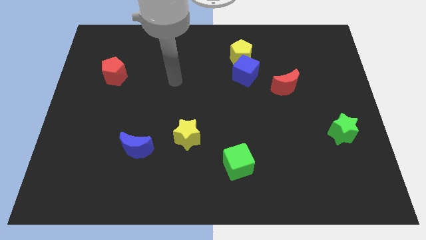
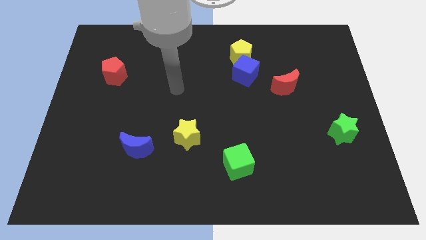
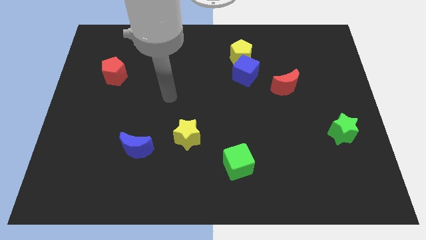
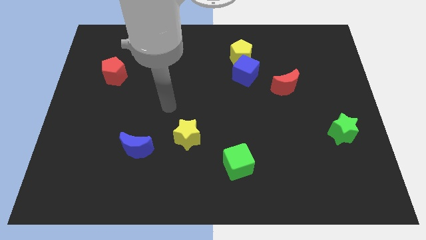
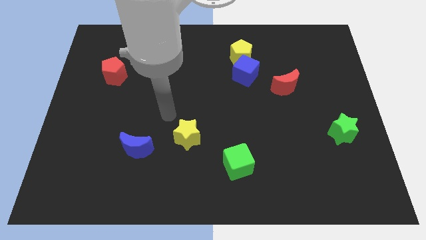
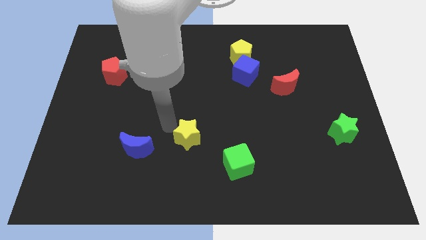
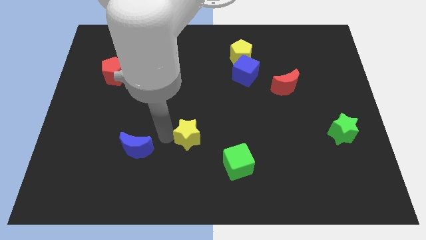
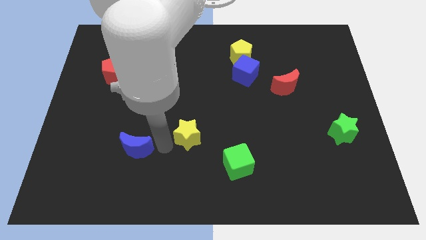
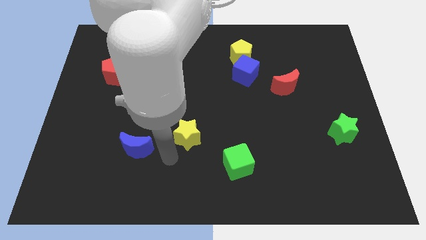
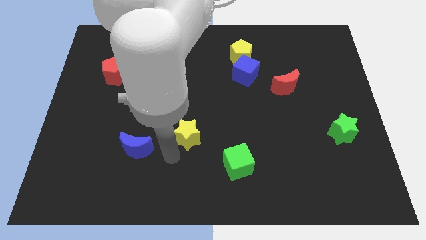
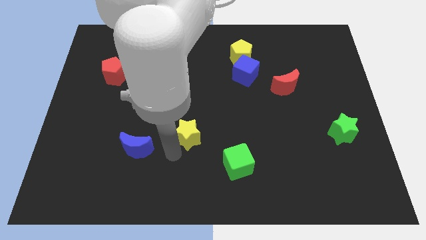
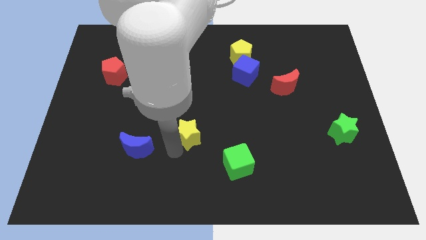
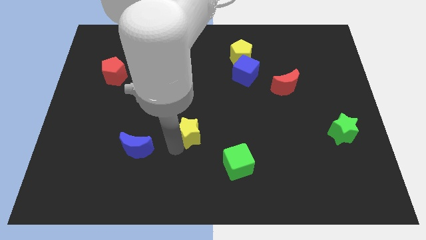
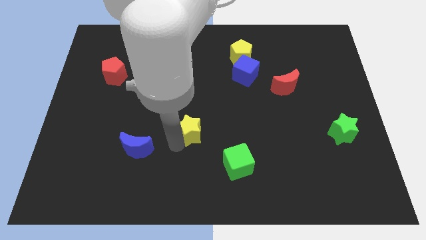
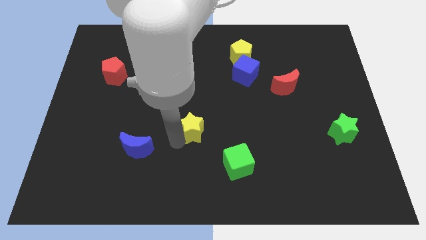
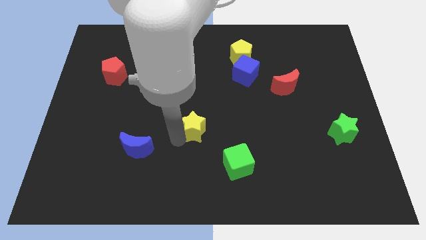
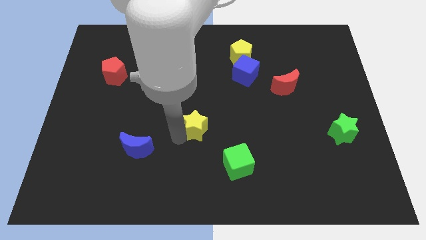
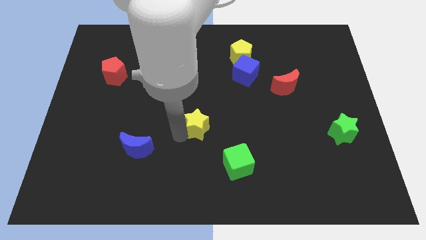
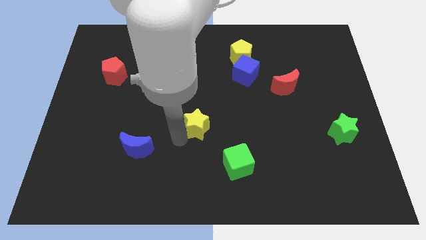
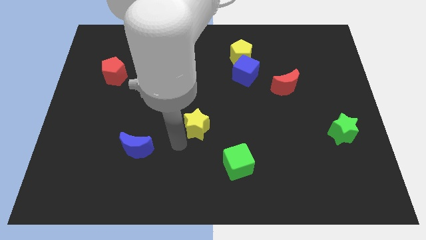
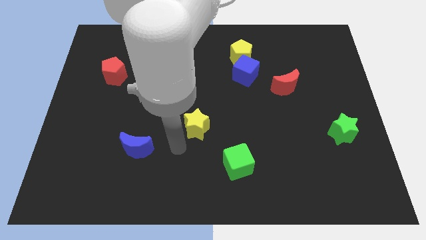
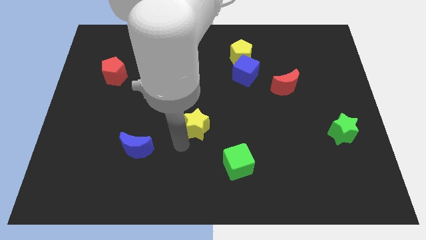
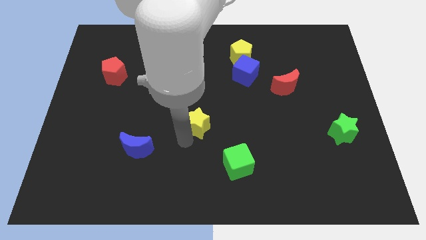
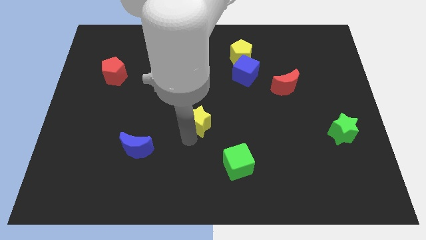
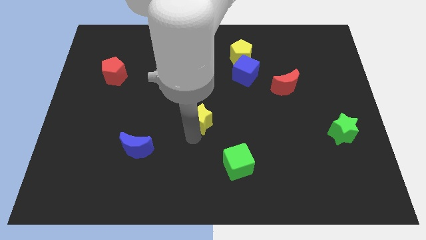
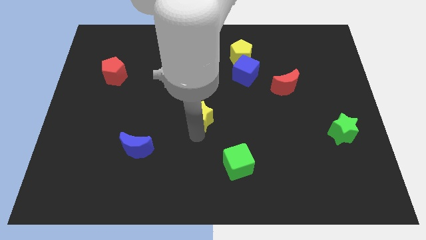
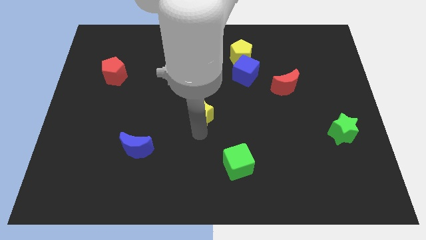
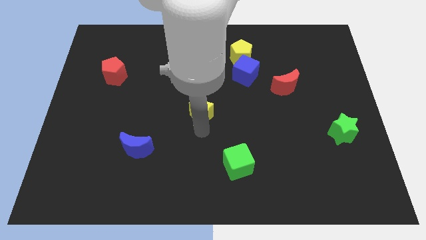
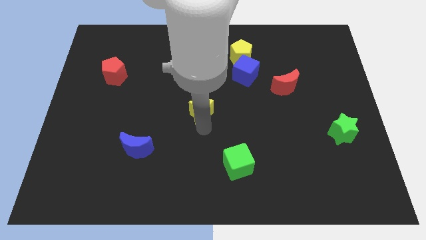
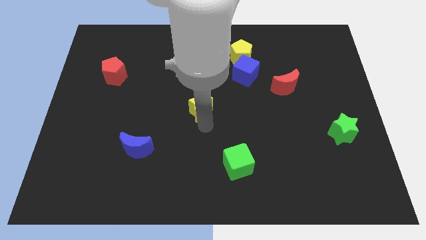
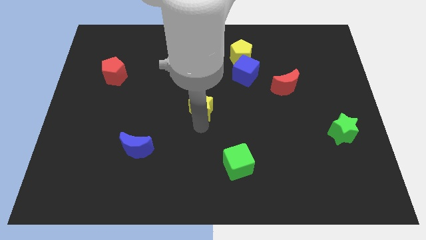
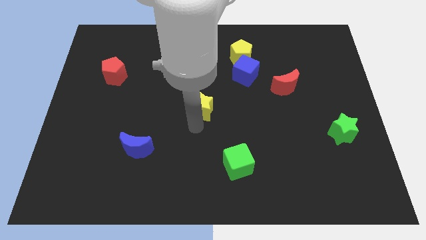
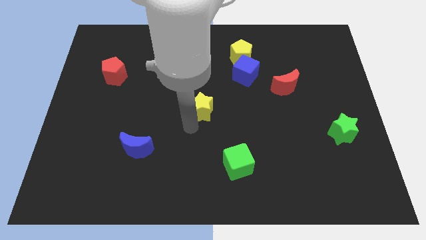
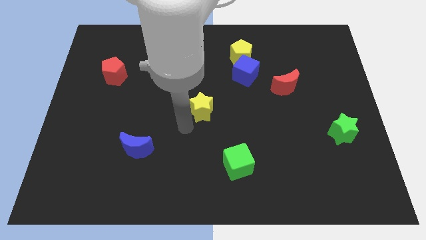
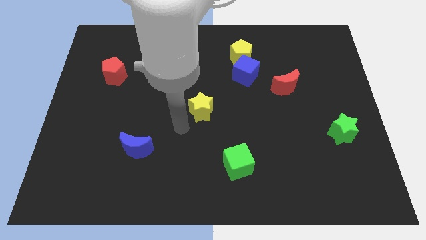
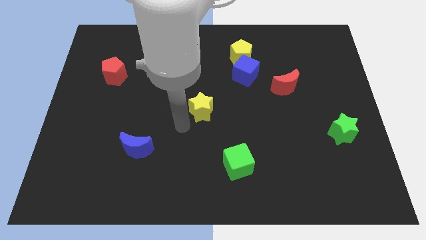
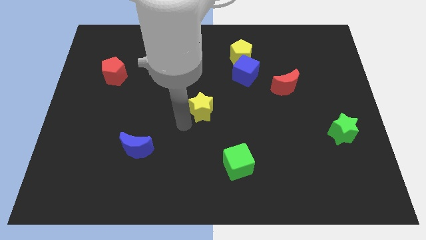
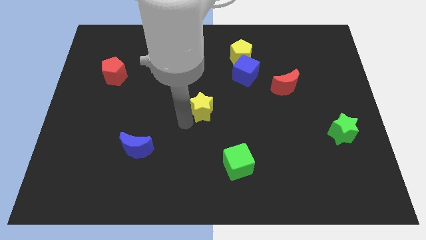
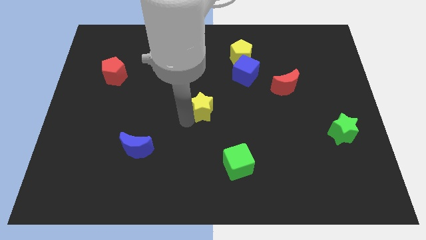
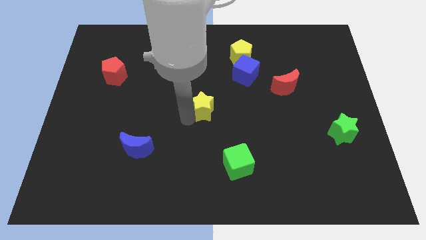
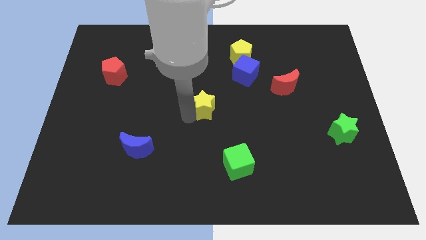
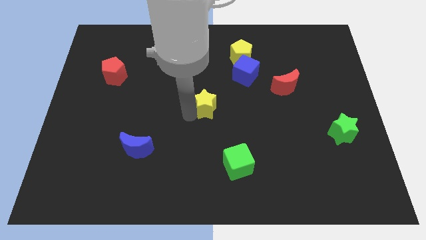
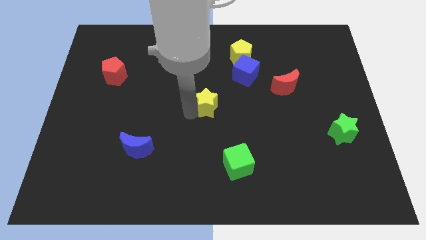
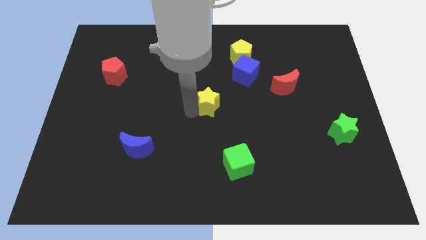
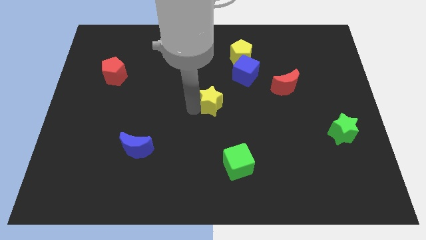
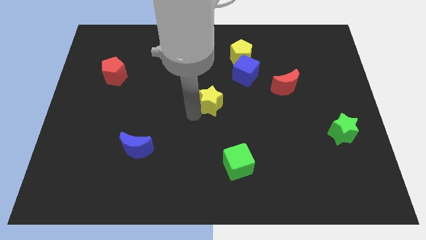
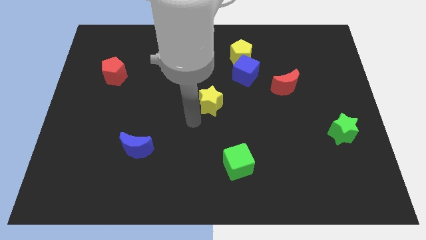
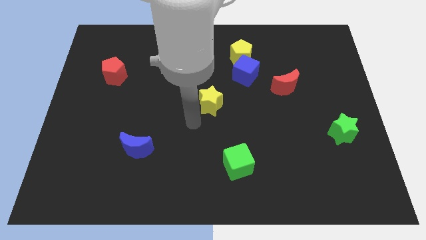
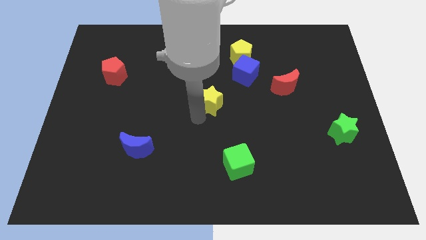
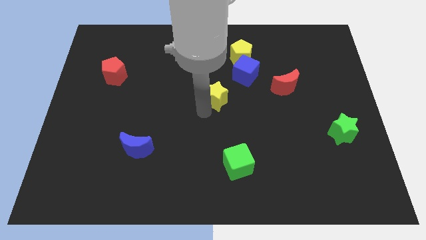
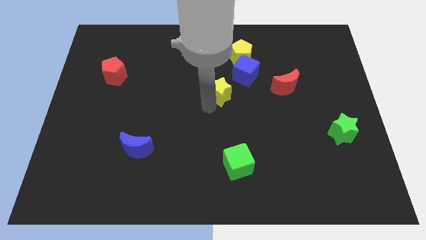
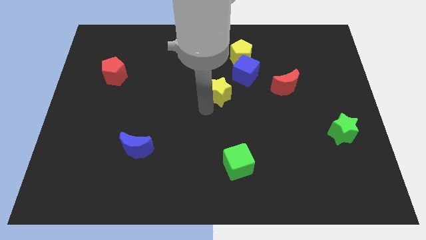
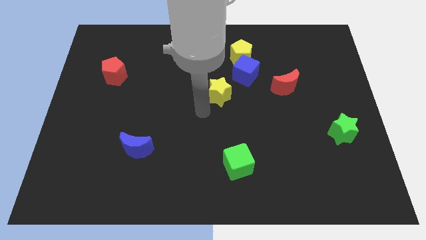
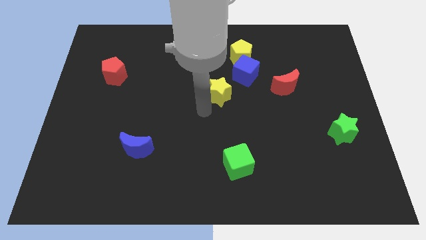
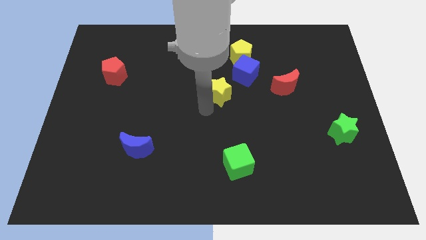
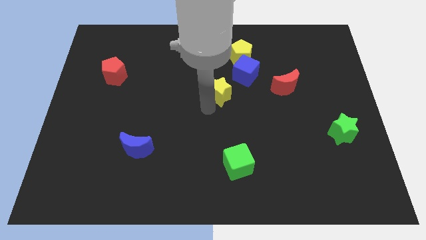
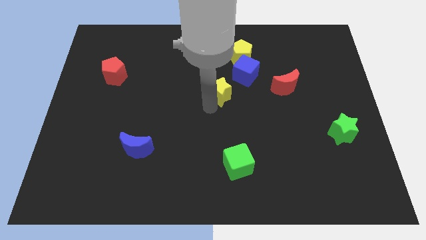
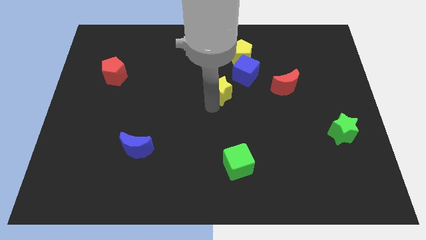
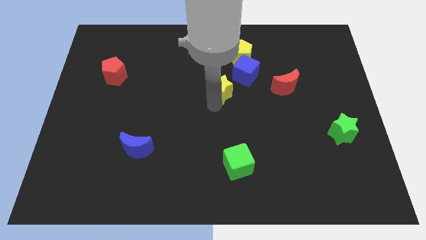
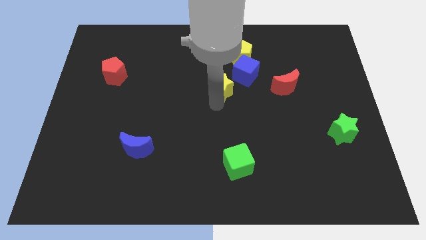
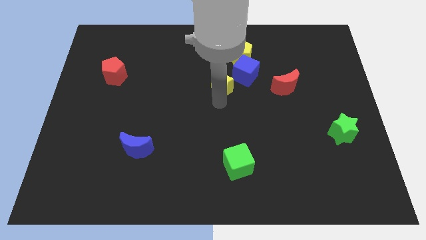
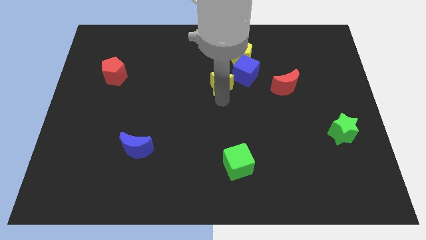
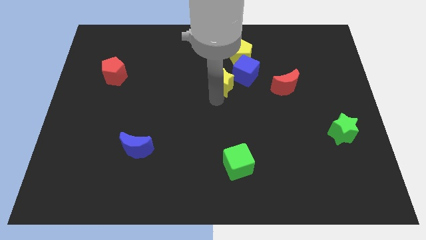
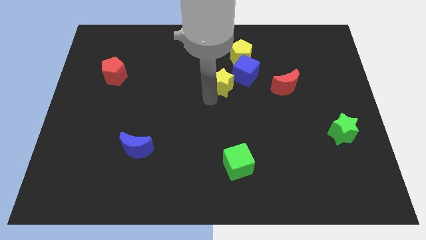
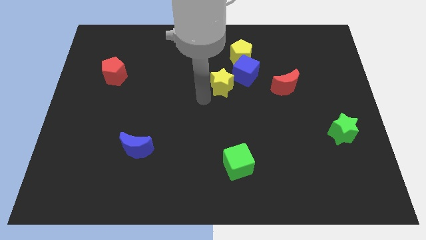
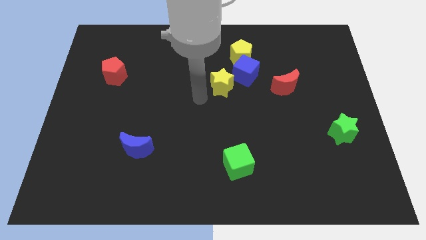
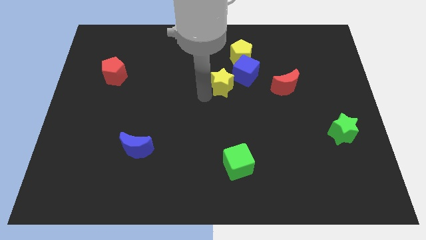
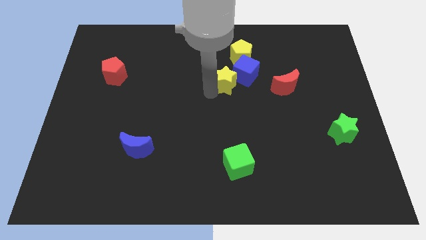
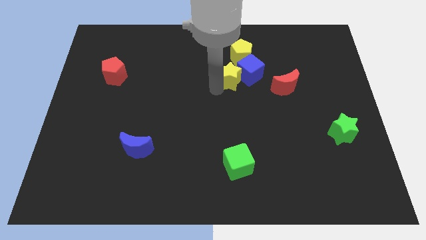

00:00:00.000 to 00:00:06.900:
push the yellow star next to the blue cube

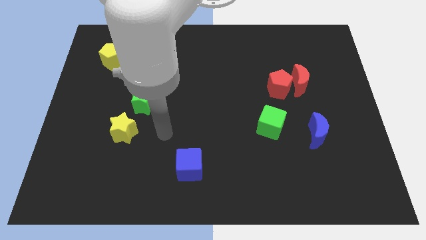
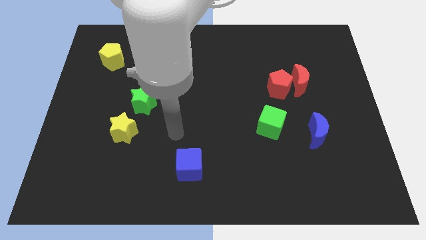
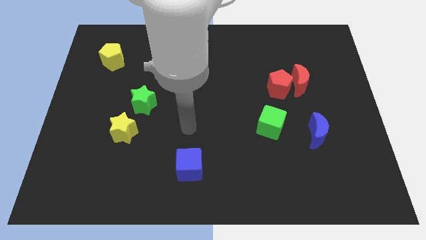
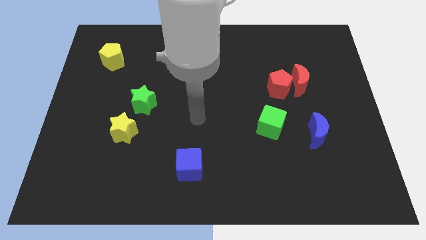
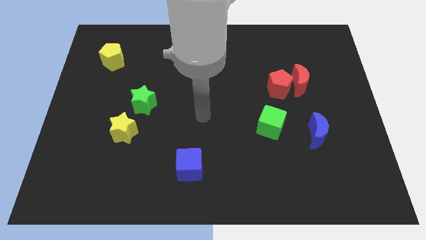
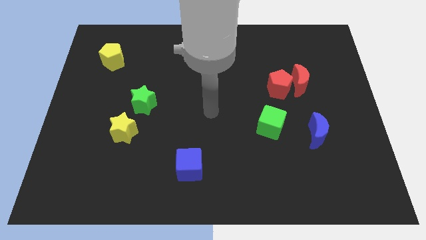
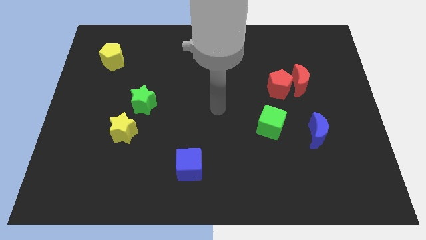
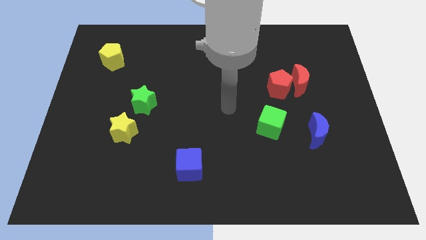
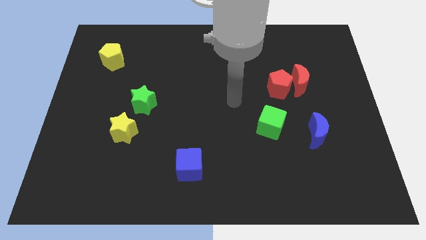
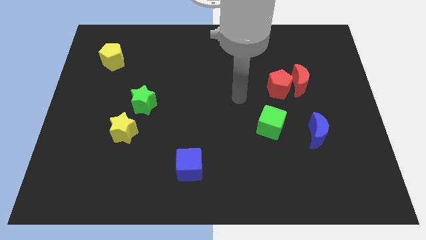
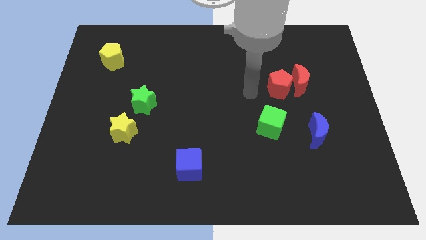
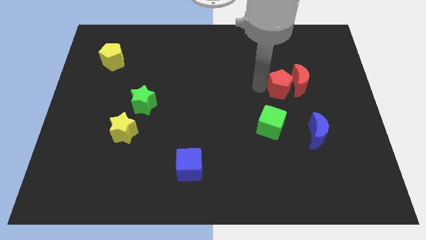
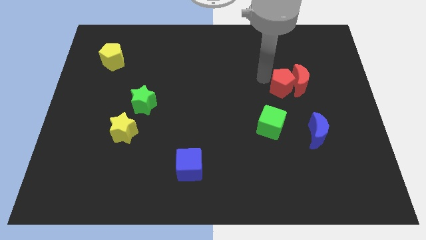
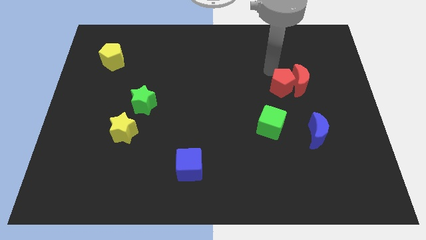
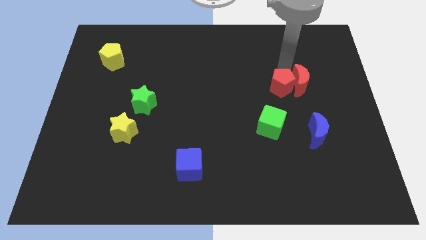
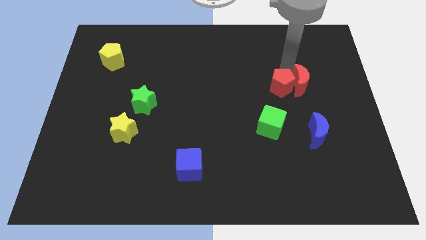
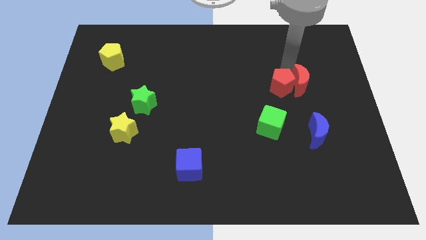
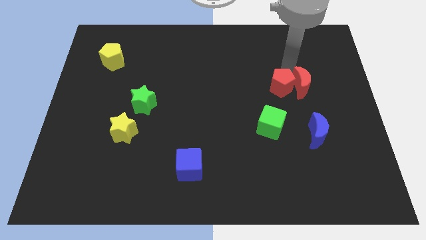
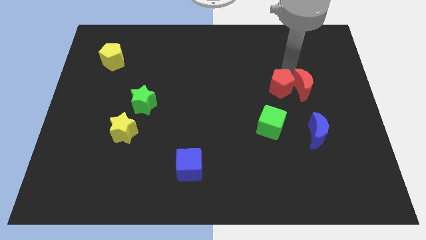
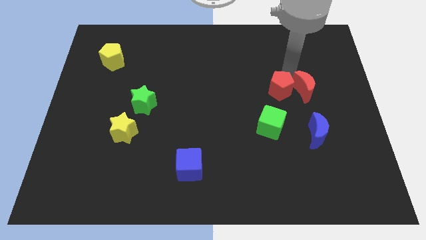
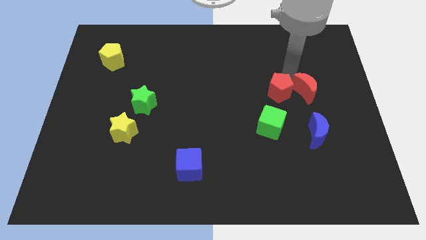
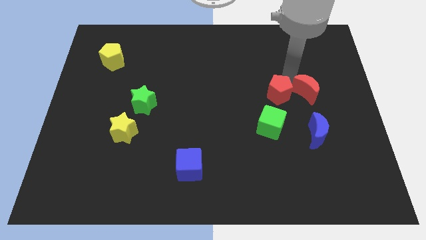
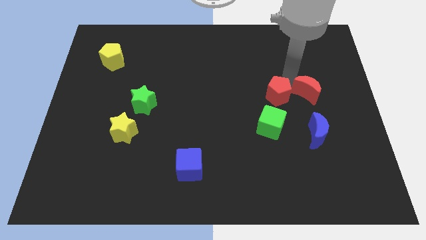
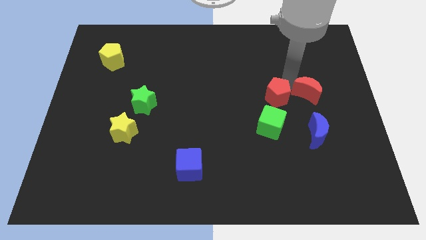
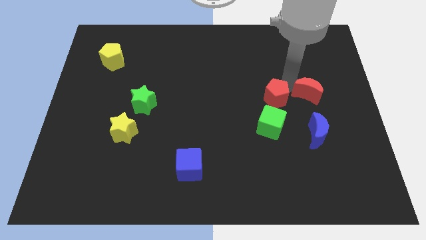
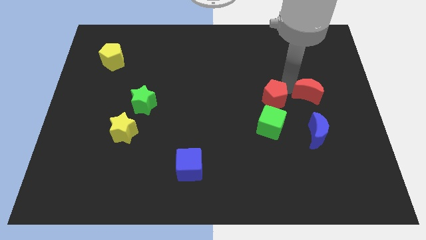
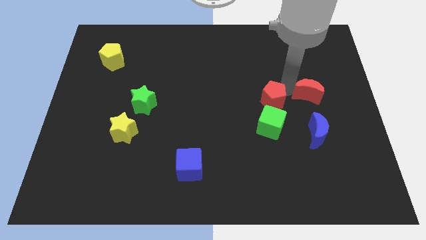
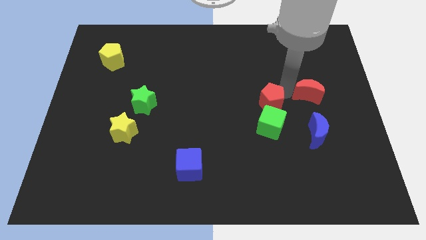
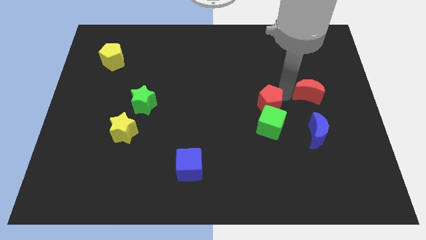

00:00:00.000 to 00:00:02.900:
put the red pentagon close to the green cube
